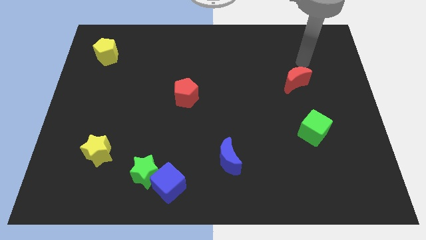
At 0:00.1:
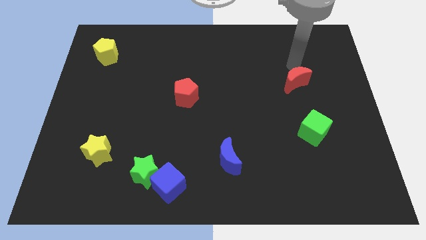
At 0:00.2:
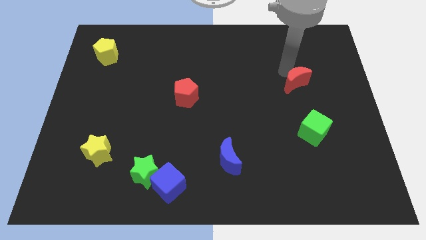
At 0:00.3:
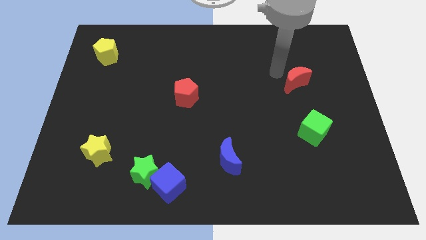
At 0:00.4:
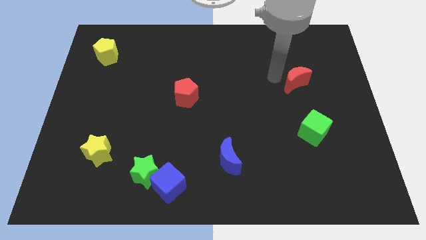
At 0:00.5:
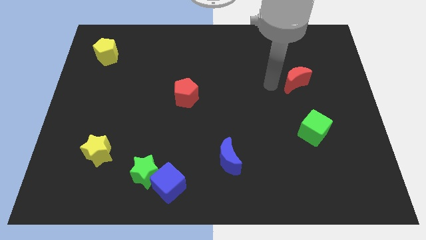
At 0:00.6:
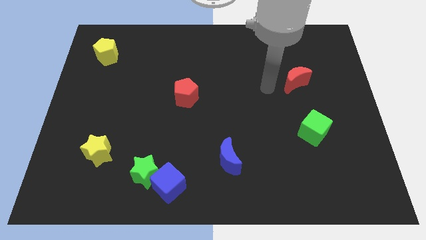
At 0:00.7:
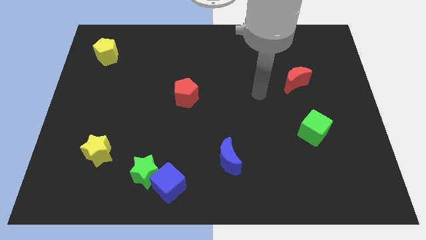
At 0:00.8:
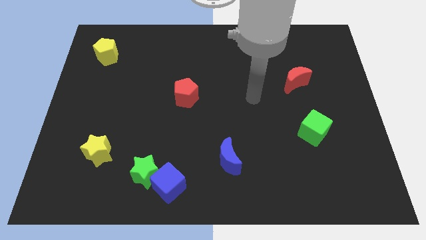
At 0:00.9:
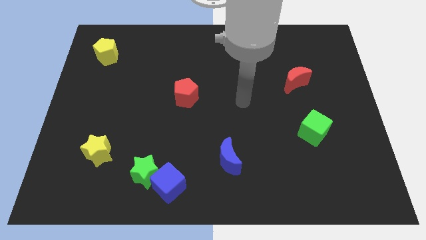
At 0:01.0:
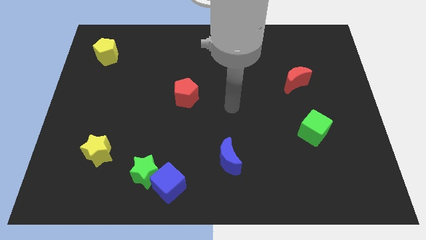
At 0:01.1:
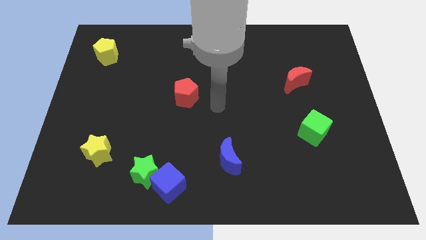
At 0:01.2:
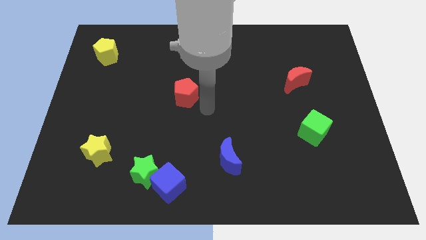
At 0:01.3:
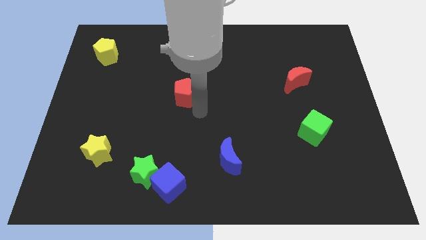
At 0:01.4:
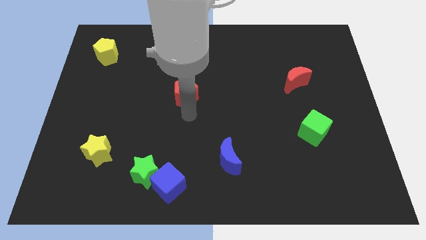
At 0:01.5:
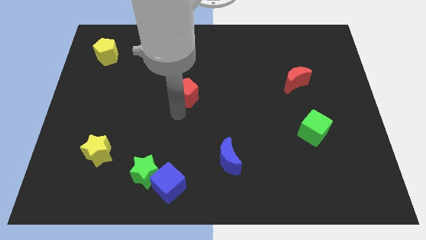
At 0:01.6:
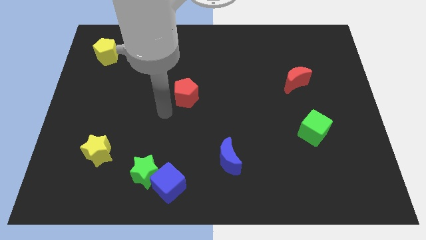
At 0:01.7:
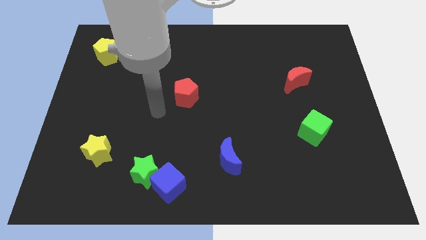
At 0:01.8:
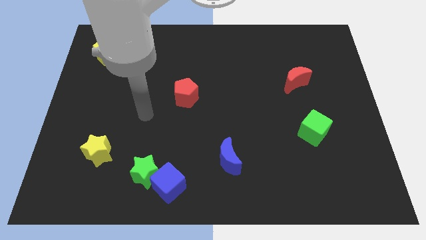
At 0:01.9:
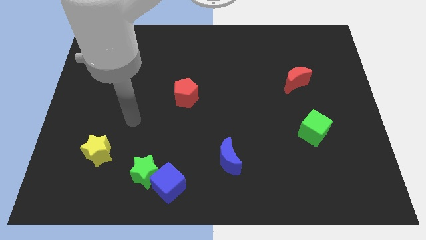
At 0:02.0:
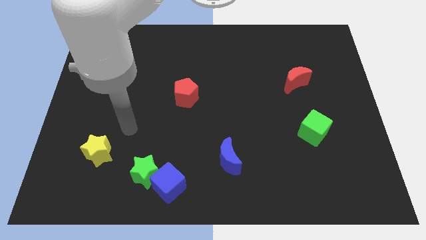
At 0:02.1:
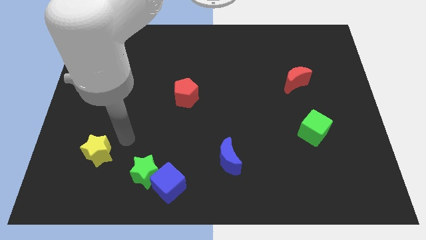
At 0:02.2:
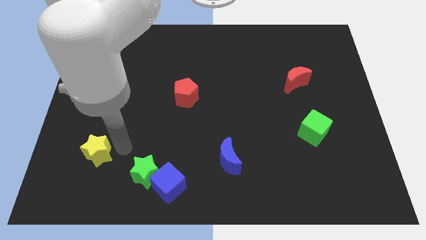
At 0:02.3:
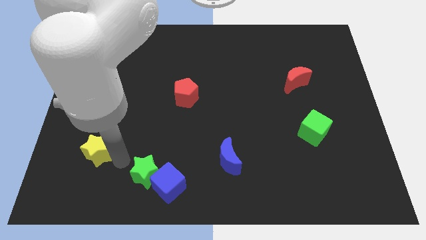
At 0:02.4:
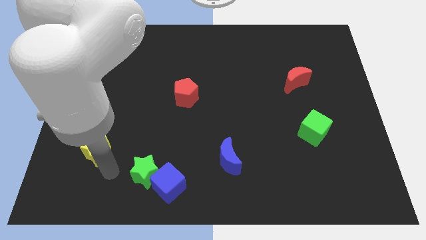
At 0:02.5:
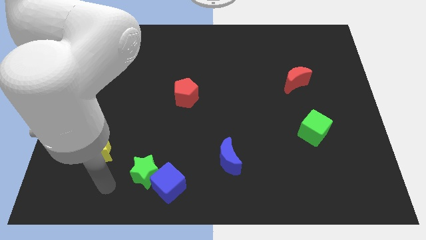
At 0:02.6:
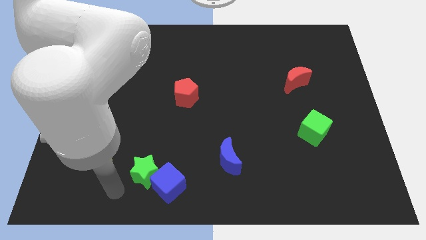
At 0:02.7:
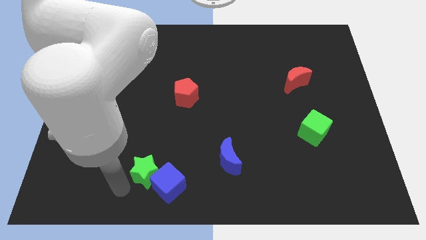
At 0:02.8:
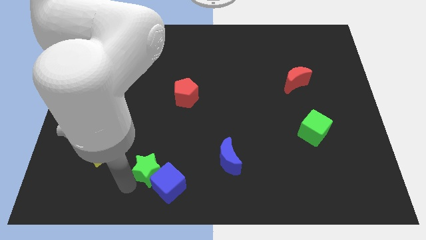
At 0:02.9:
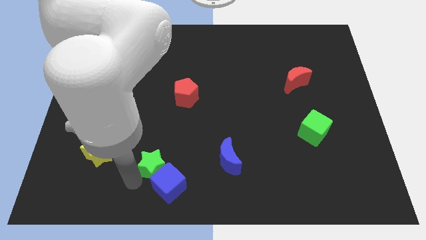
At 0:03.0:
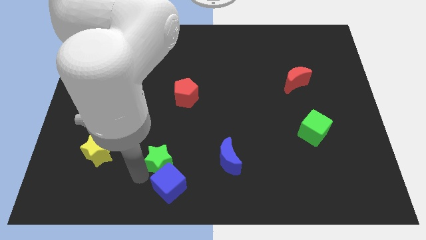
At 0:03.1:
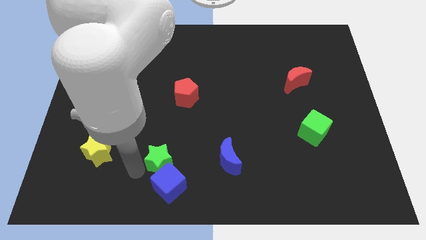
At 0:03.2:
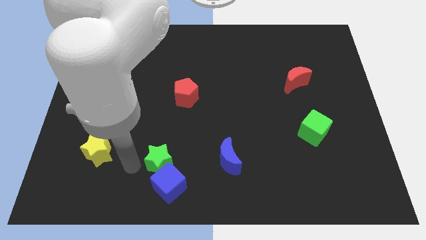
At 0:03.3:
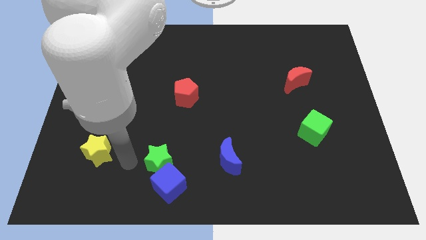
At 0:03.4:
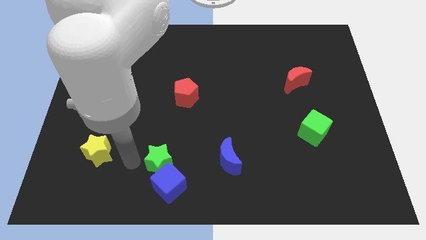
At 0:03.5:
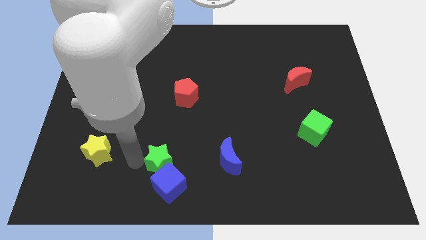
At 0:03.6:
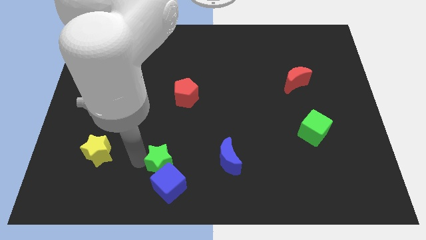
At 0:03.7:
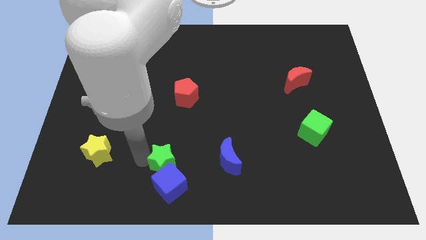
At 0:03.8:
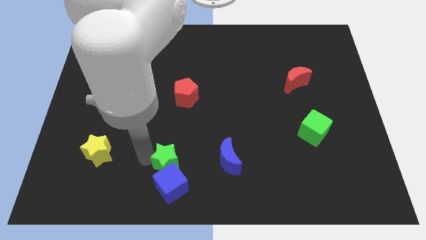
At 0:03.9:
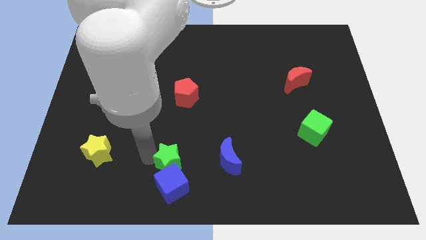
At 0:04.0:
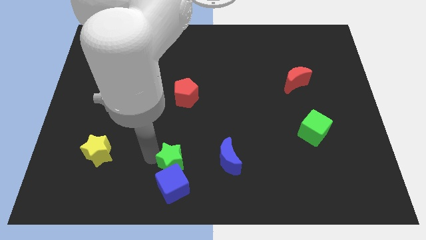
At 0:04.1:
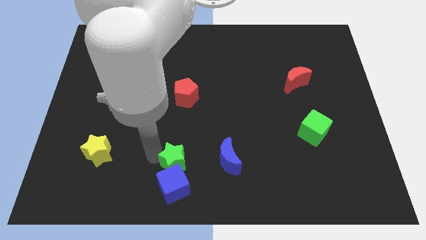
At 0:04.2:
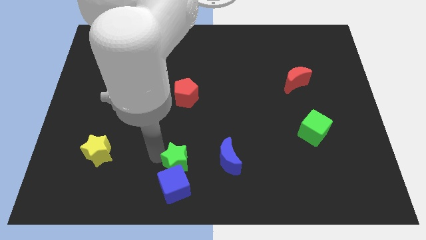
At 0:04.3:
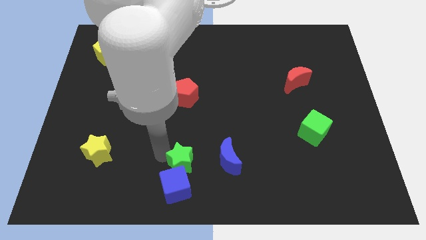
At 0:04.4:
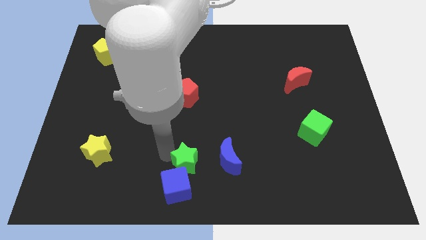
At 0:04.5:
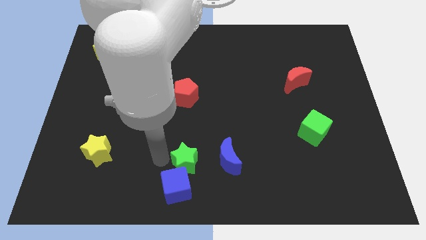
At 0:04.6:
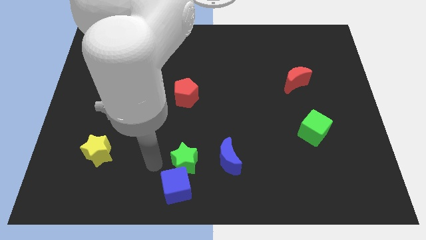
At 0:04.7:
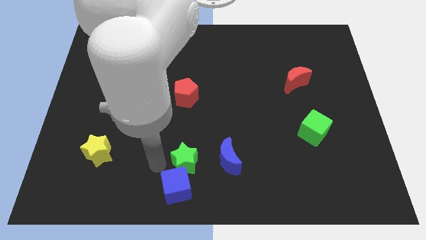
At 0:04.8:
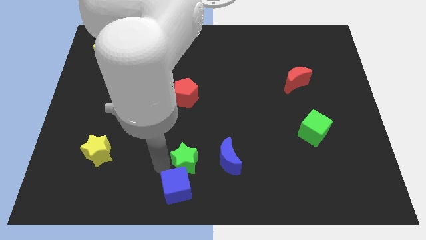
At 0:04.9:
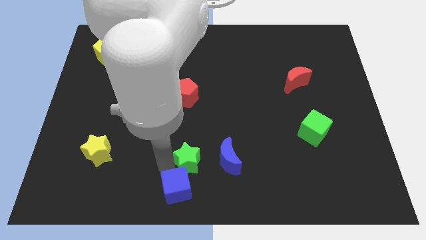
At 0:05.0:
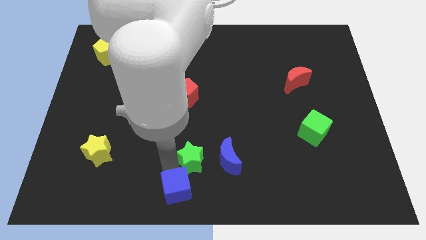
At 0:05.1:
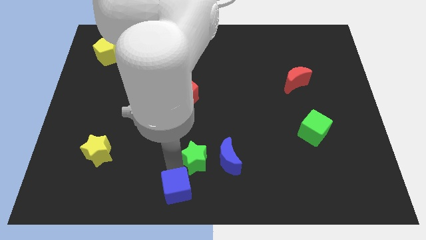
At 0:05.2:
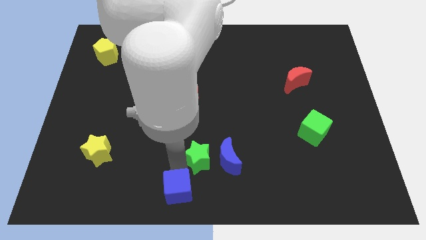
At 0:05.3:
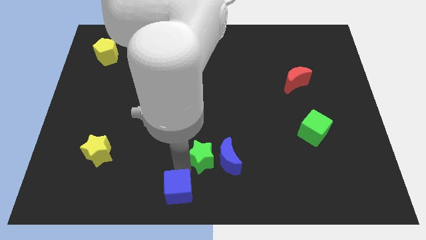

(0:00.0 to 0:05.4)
put the green star towards the blue moon

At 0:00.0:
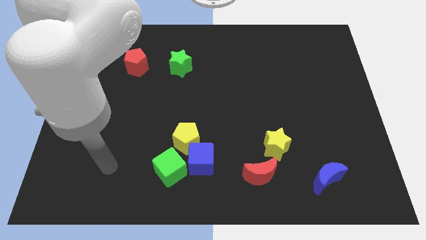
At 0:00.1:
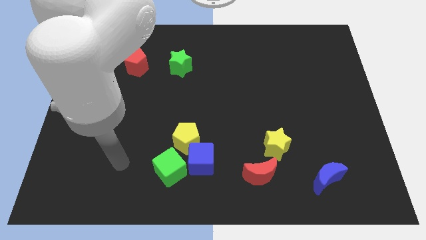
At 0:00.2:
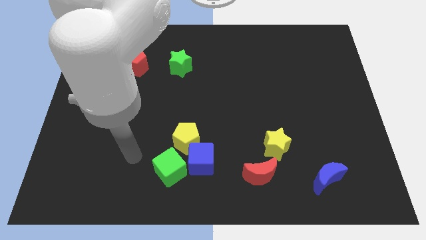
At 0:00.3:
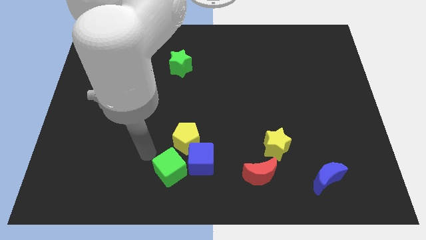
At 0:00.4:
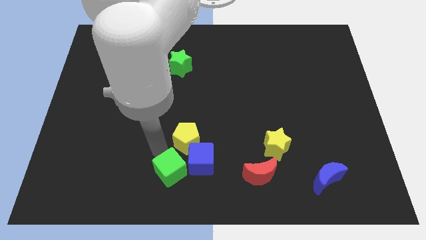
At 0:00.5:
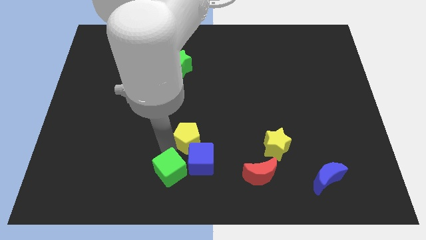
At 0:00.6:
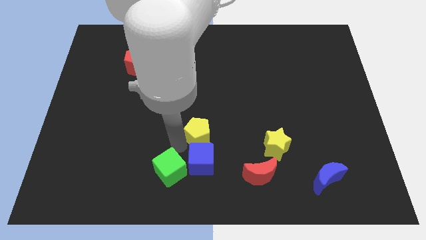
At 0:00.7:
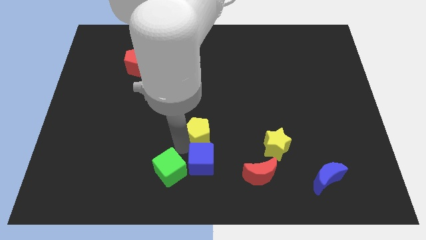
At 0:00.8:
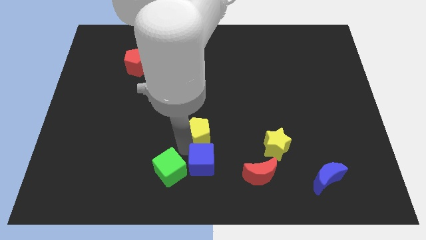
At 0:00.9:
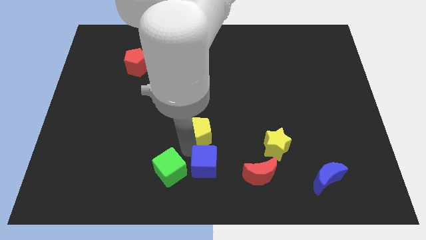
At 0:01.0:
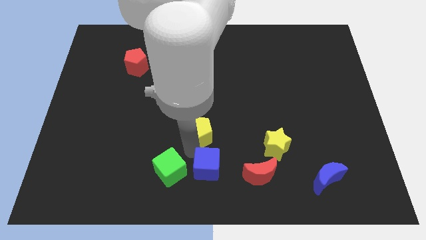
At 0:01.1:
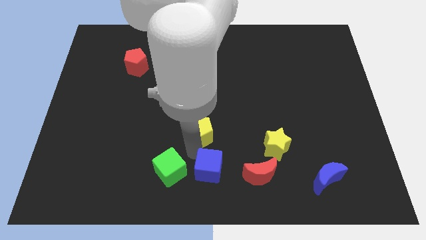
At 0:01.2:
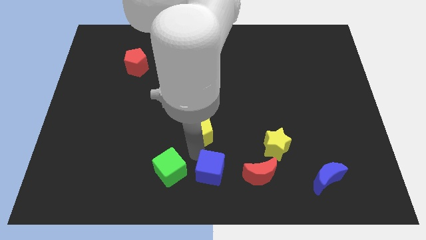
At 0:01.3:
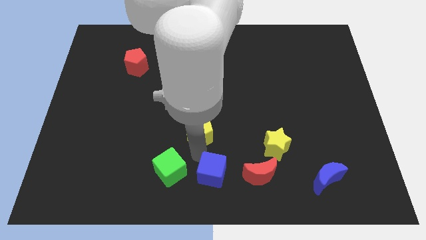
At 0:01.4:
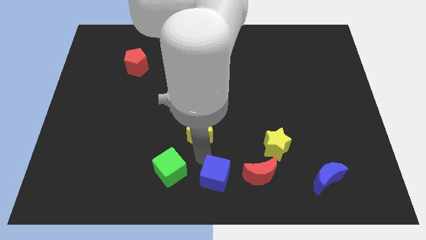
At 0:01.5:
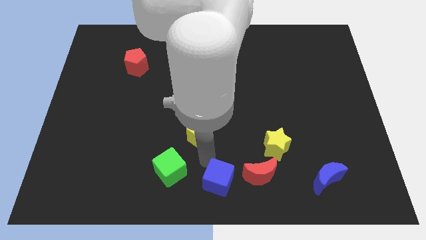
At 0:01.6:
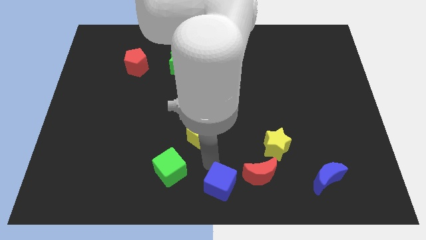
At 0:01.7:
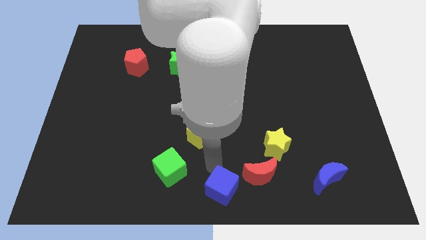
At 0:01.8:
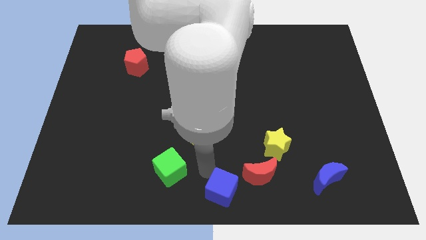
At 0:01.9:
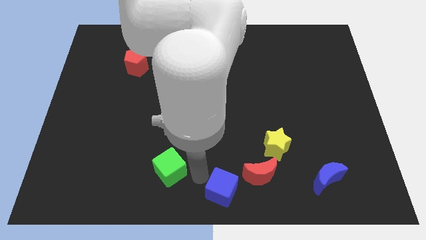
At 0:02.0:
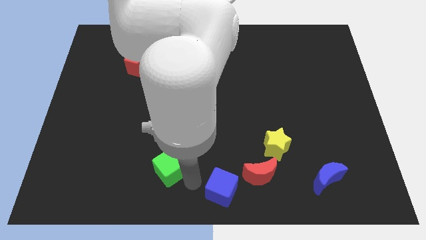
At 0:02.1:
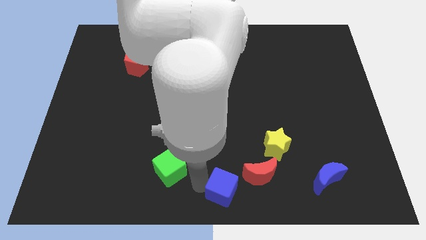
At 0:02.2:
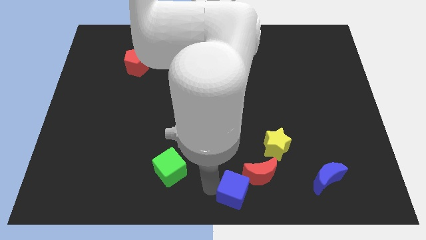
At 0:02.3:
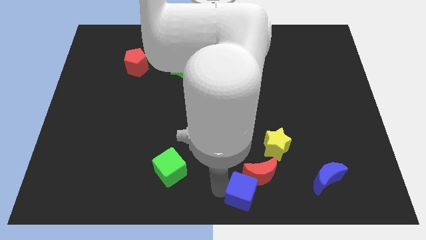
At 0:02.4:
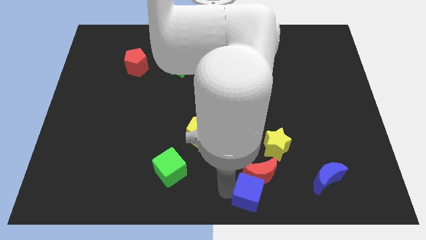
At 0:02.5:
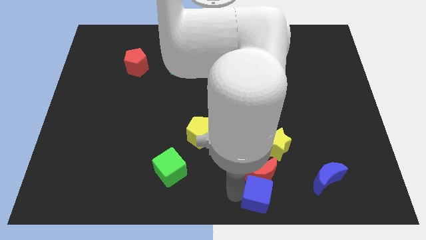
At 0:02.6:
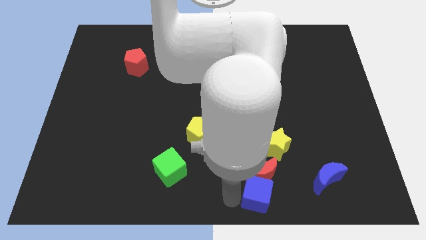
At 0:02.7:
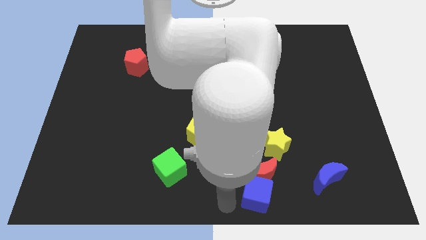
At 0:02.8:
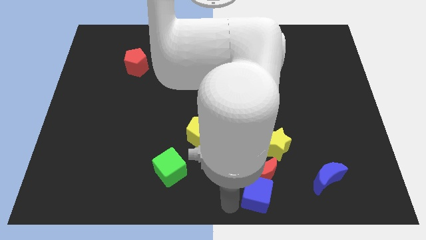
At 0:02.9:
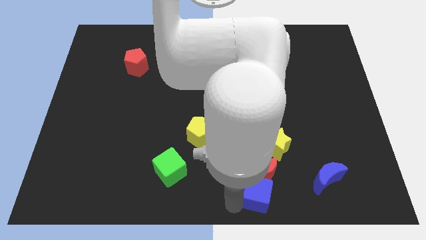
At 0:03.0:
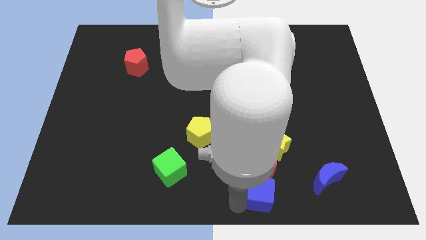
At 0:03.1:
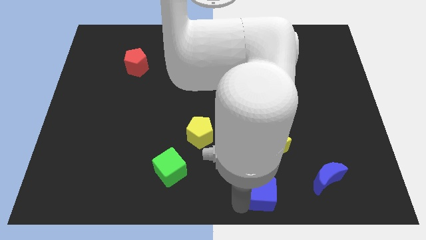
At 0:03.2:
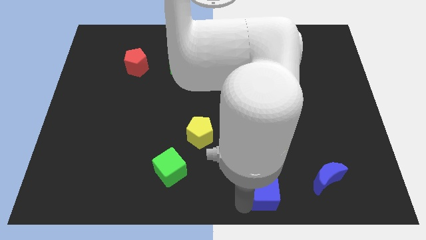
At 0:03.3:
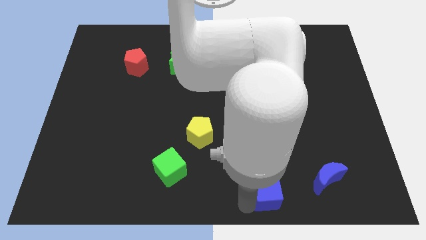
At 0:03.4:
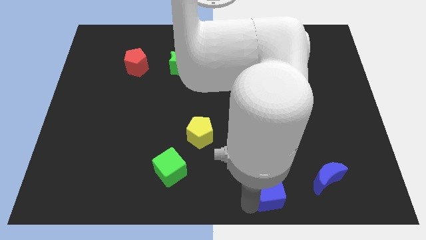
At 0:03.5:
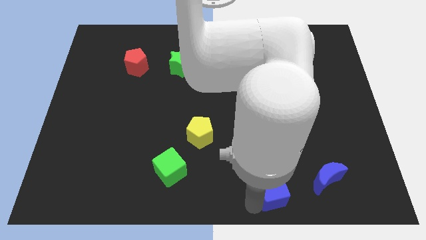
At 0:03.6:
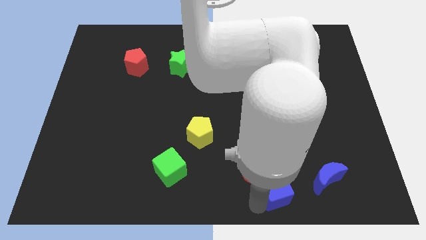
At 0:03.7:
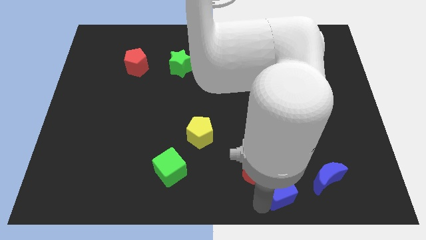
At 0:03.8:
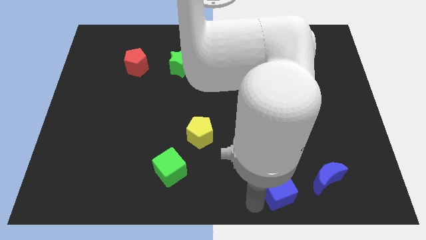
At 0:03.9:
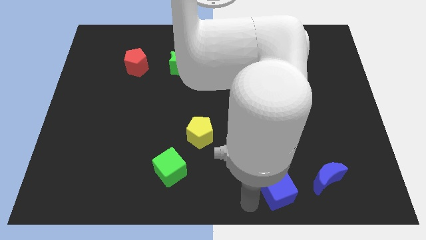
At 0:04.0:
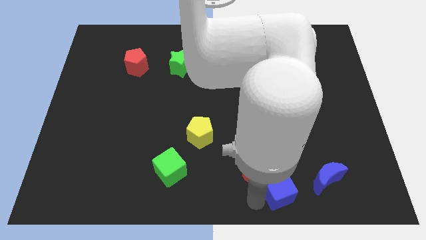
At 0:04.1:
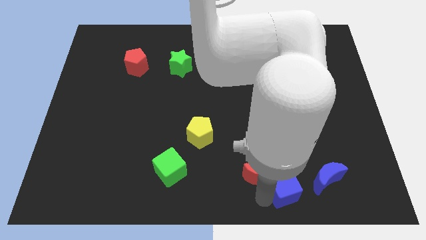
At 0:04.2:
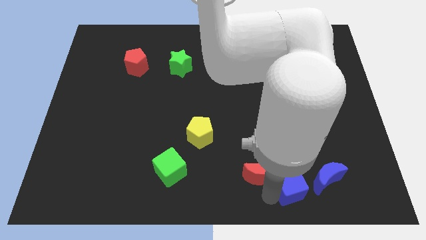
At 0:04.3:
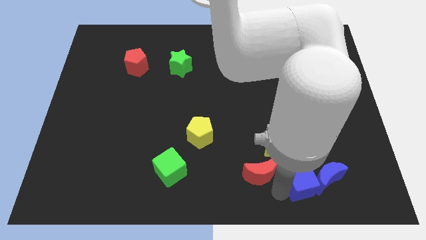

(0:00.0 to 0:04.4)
put the blue cube close to the blue moon
